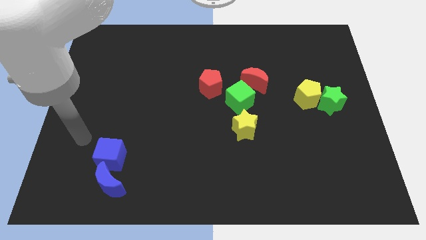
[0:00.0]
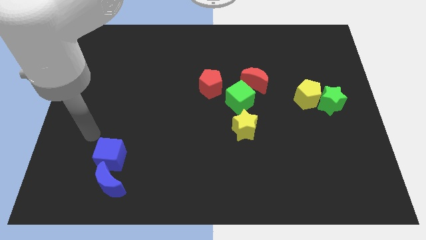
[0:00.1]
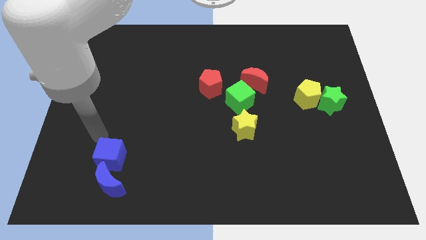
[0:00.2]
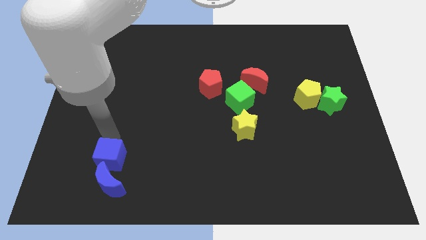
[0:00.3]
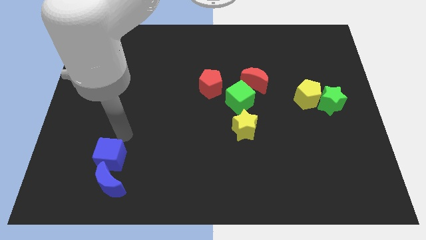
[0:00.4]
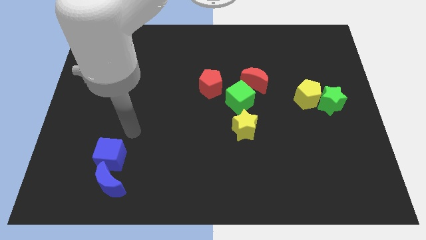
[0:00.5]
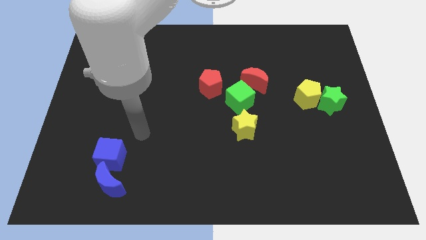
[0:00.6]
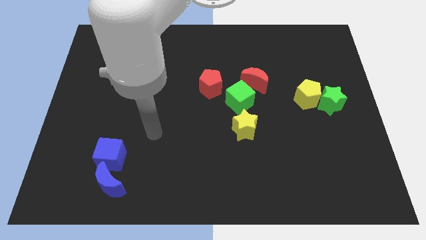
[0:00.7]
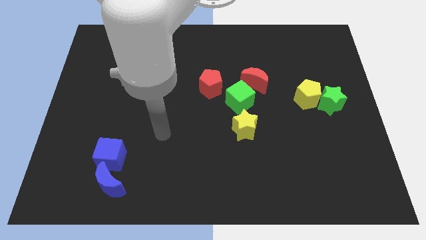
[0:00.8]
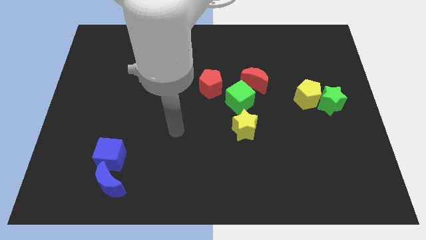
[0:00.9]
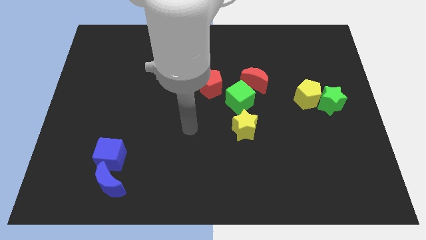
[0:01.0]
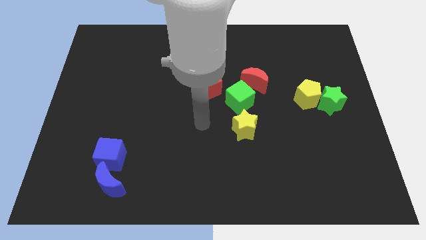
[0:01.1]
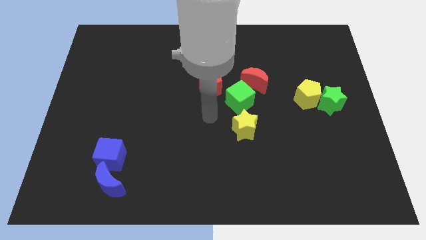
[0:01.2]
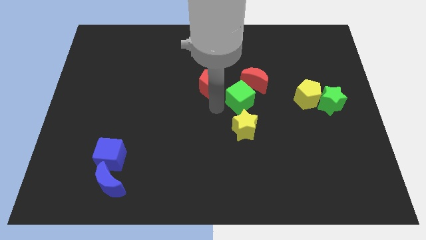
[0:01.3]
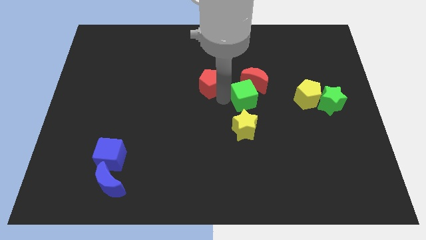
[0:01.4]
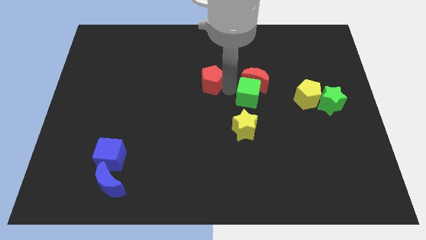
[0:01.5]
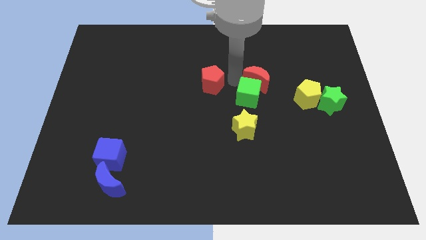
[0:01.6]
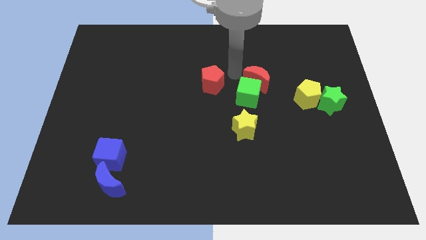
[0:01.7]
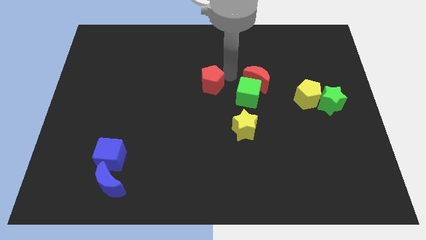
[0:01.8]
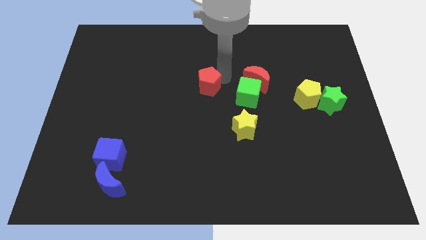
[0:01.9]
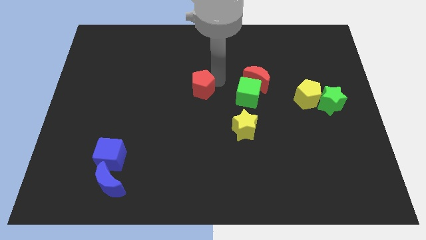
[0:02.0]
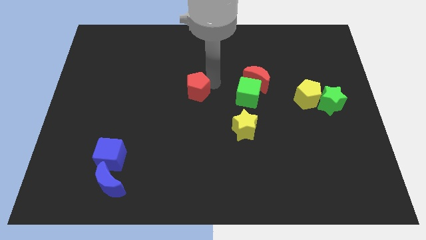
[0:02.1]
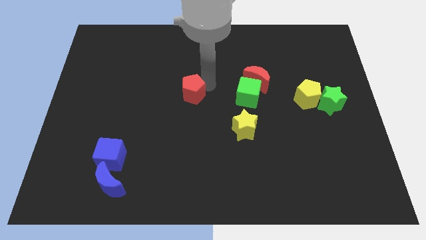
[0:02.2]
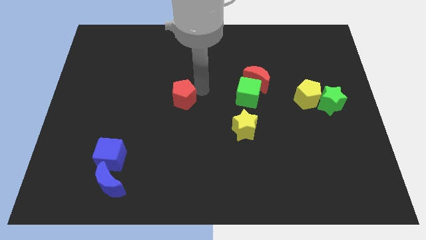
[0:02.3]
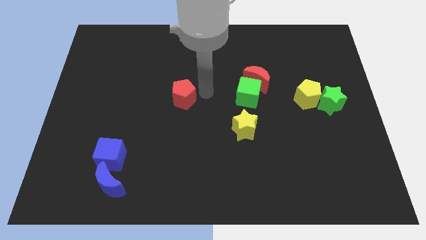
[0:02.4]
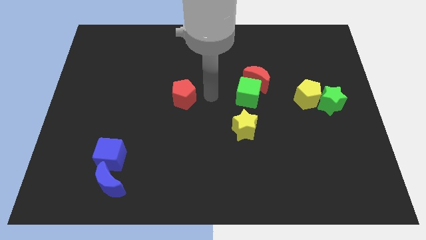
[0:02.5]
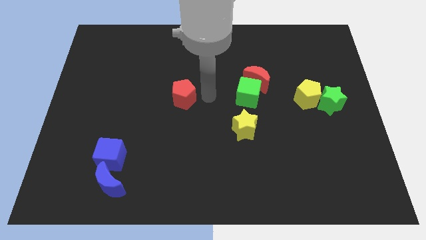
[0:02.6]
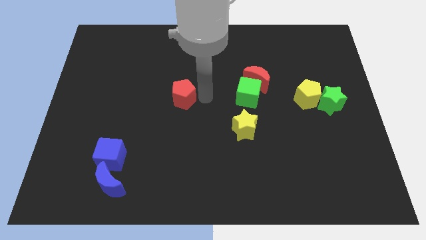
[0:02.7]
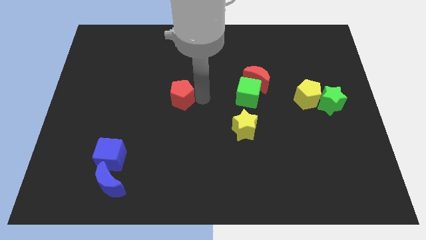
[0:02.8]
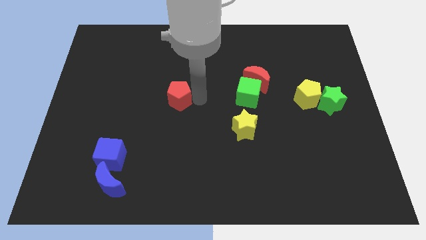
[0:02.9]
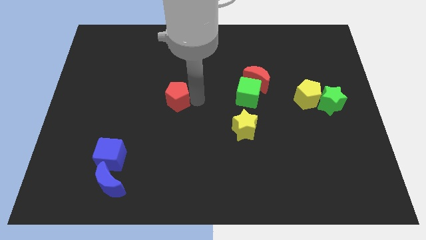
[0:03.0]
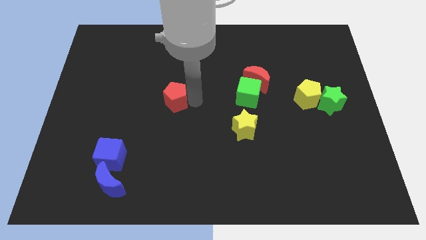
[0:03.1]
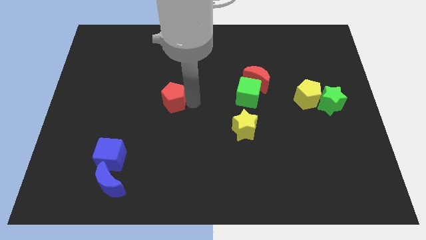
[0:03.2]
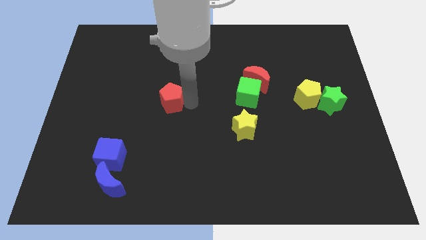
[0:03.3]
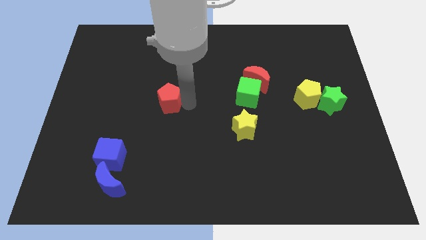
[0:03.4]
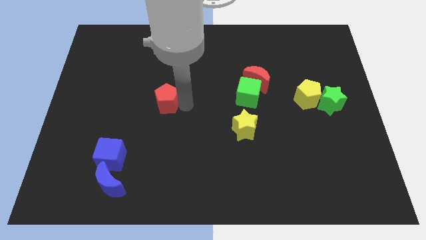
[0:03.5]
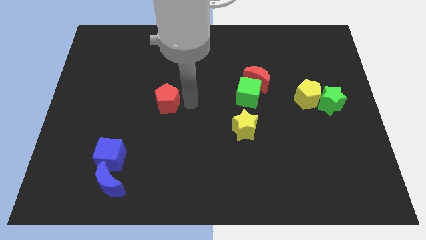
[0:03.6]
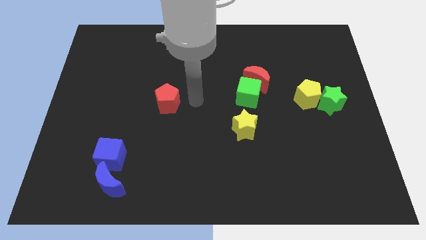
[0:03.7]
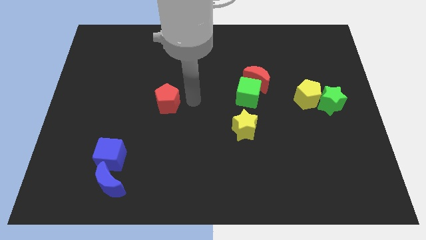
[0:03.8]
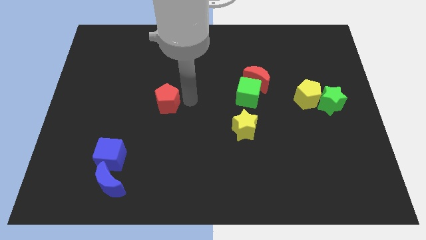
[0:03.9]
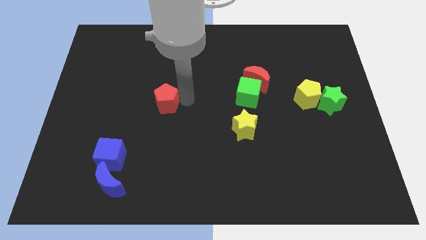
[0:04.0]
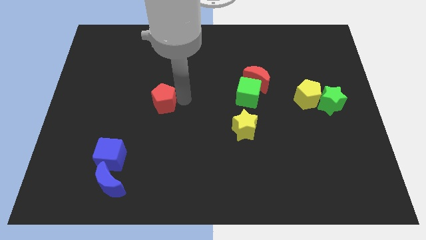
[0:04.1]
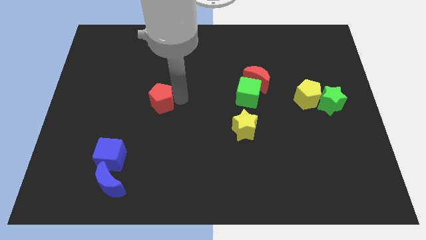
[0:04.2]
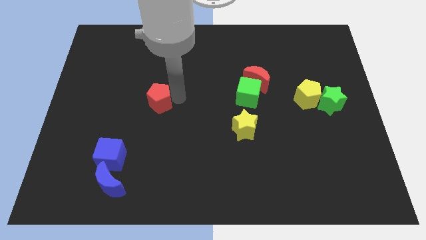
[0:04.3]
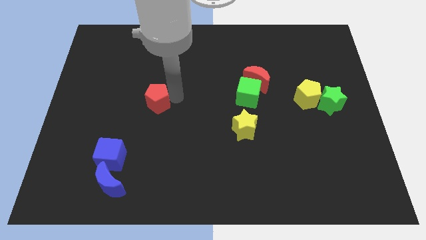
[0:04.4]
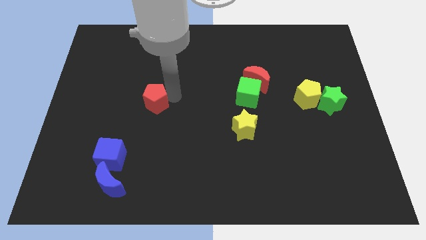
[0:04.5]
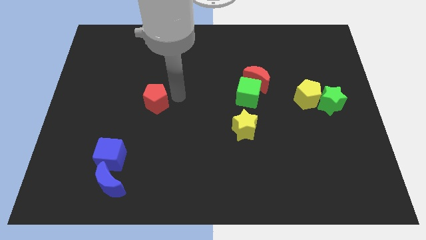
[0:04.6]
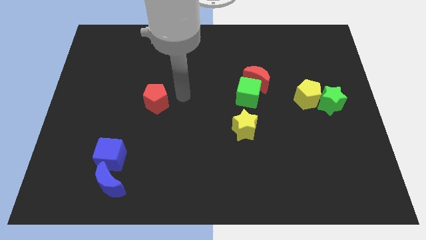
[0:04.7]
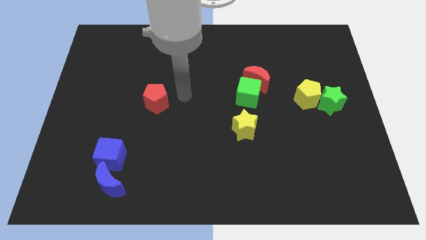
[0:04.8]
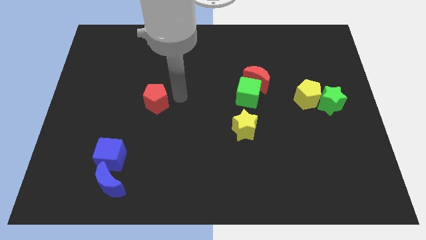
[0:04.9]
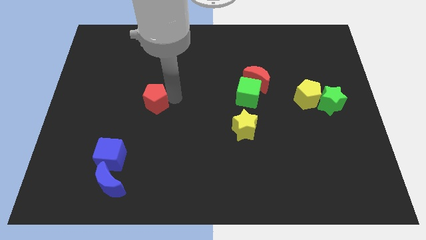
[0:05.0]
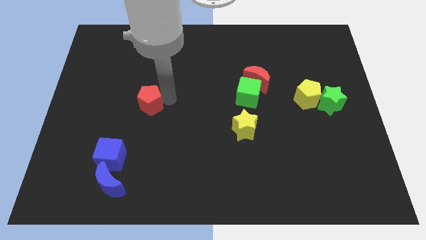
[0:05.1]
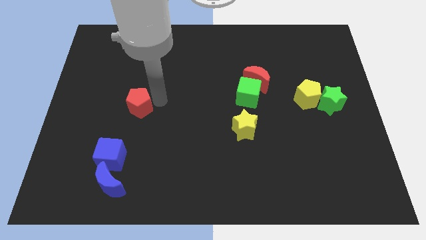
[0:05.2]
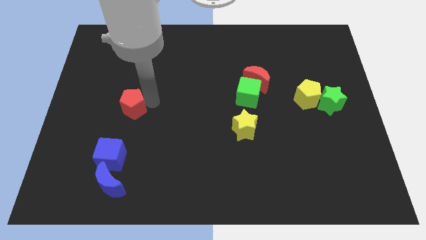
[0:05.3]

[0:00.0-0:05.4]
push the red pentagon above the blue cube

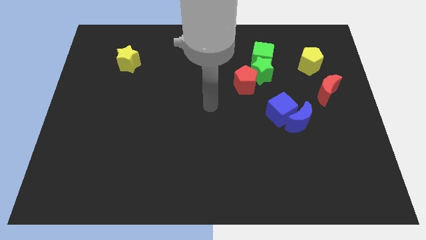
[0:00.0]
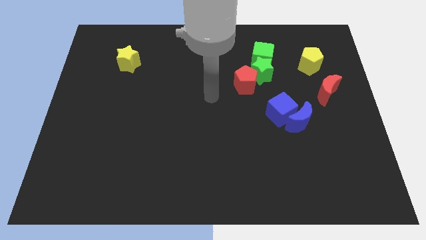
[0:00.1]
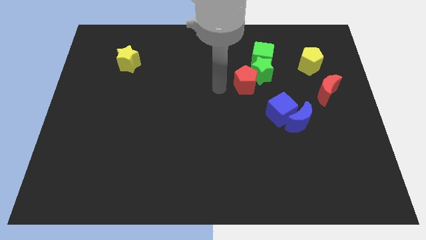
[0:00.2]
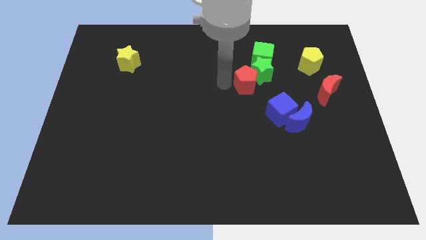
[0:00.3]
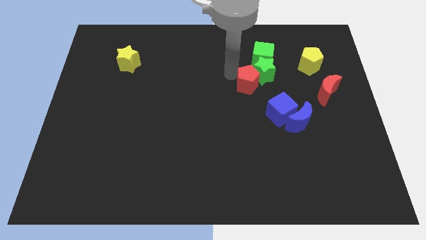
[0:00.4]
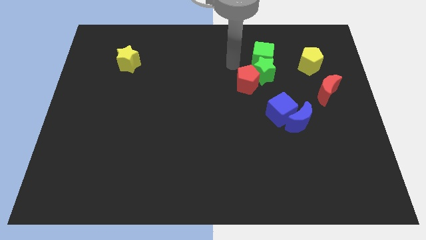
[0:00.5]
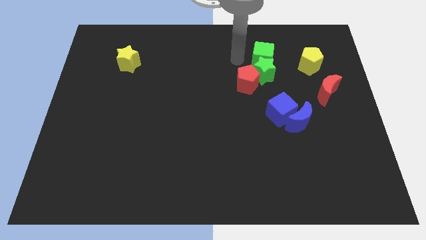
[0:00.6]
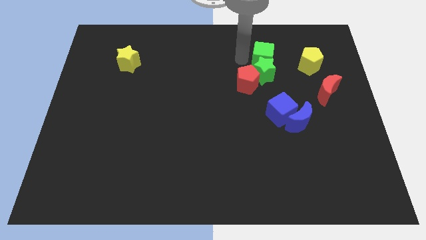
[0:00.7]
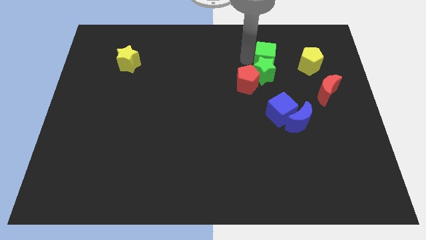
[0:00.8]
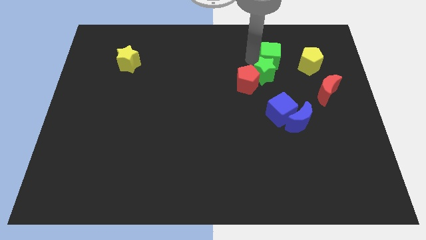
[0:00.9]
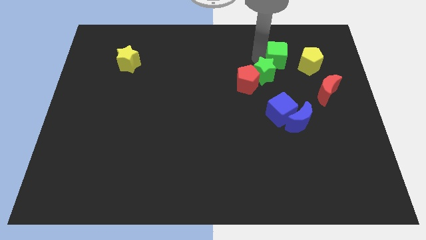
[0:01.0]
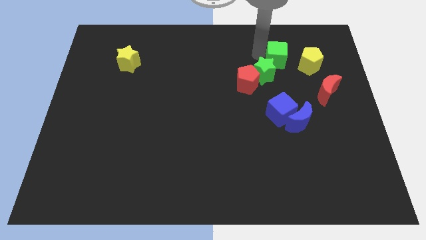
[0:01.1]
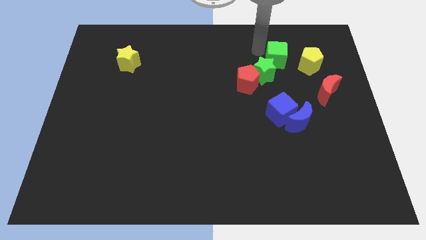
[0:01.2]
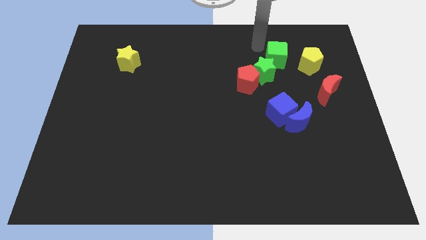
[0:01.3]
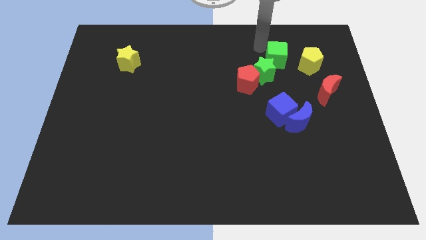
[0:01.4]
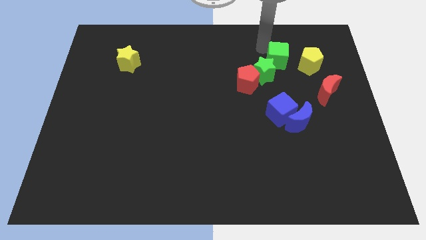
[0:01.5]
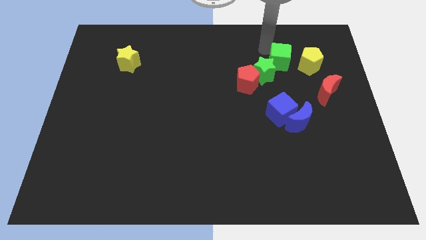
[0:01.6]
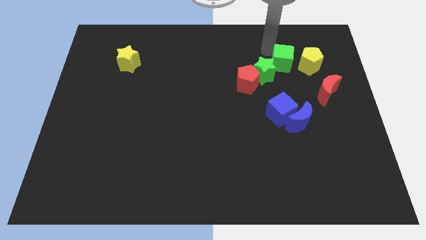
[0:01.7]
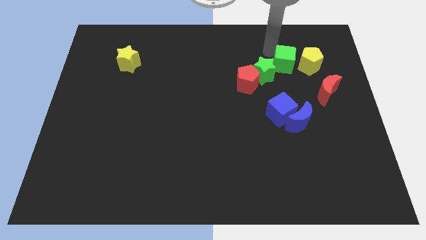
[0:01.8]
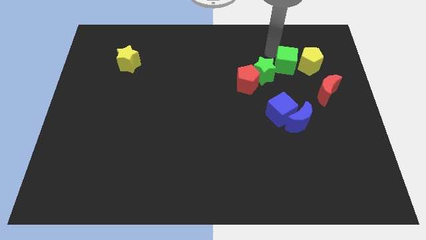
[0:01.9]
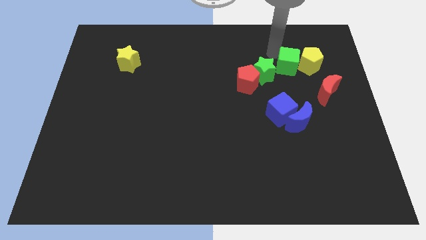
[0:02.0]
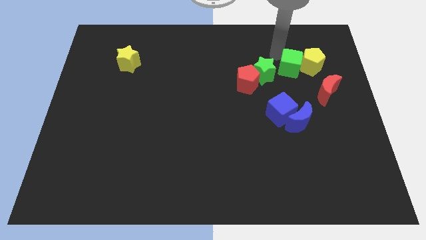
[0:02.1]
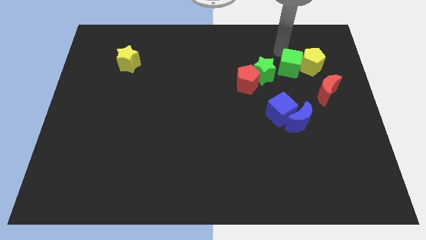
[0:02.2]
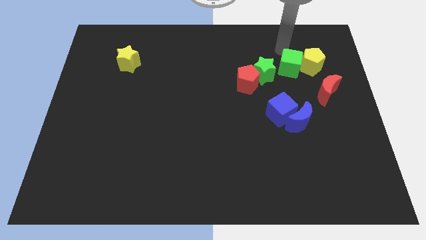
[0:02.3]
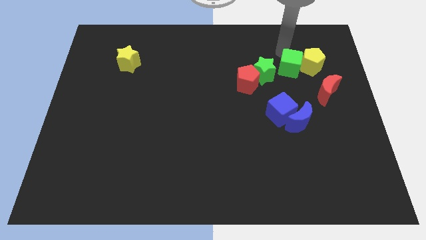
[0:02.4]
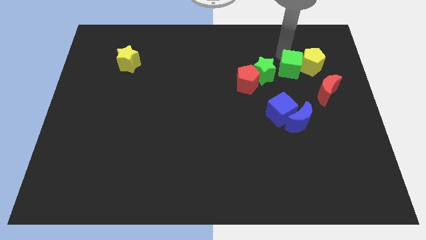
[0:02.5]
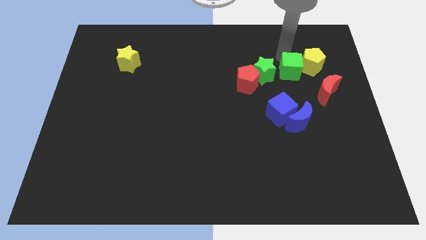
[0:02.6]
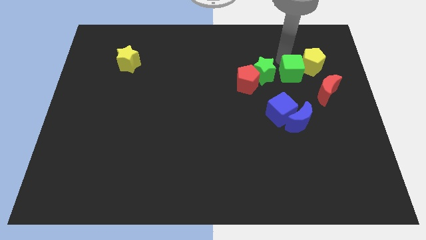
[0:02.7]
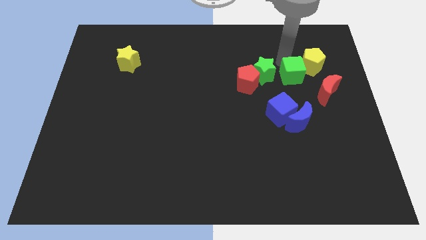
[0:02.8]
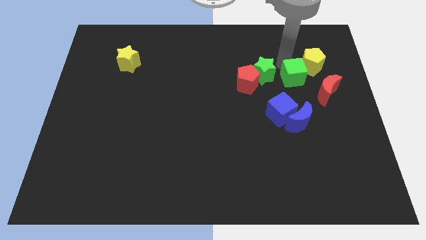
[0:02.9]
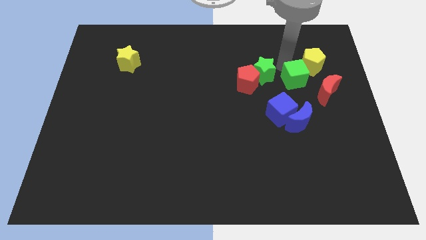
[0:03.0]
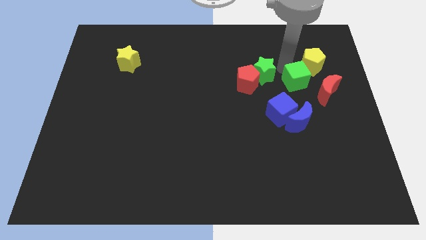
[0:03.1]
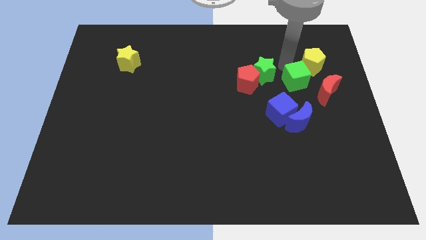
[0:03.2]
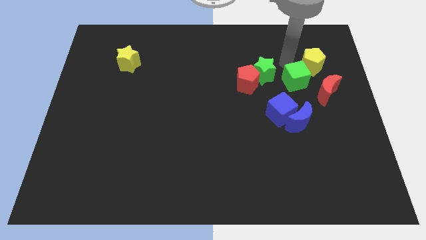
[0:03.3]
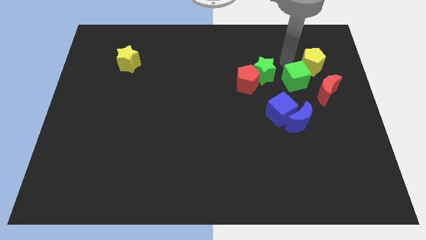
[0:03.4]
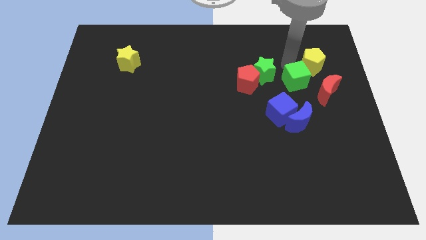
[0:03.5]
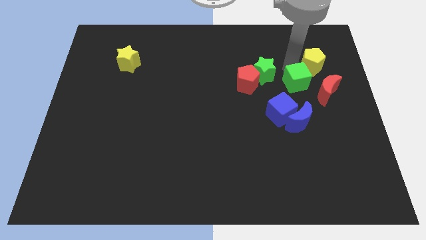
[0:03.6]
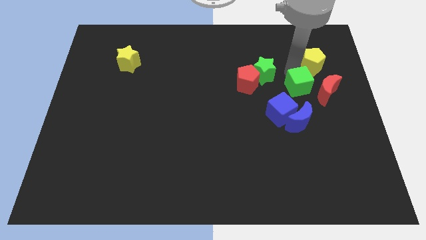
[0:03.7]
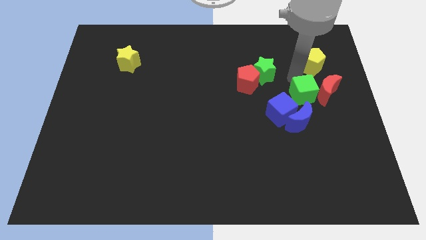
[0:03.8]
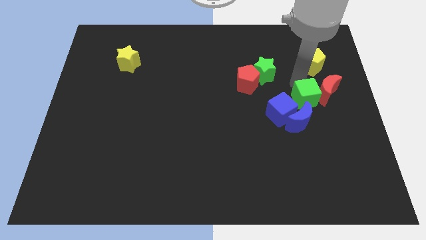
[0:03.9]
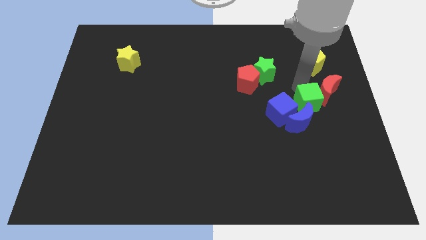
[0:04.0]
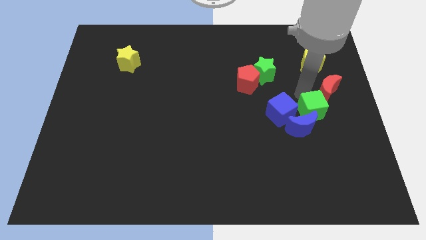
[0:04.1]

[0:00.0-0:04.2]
put the green cube below the red moon
